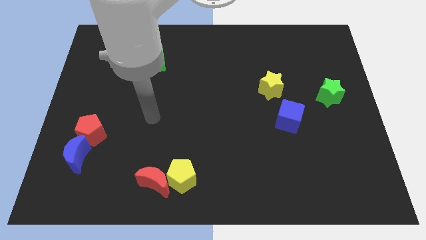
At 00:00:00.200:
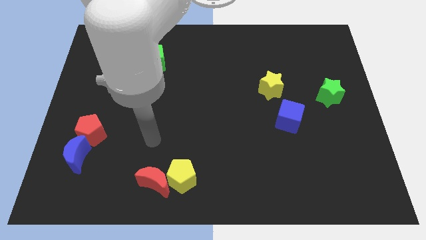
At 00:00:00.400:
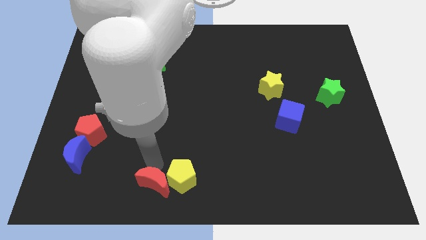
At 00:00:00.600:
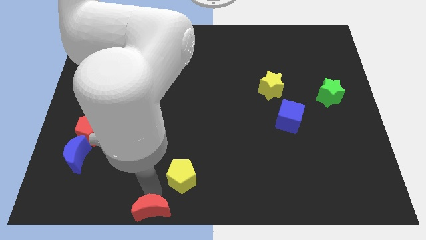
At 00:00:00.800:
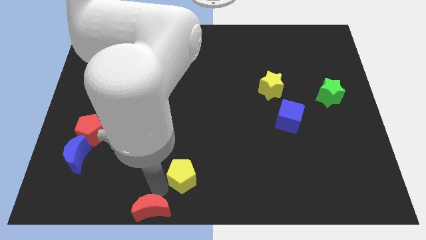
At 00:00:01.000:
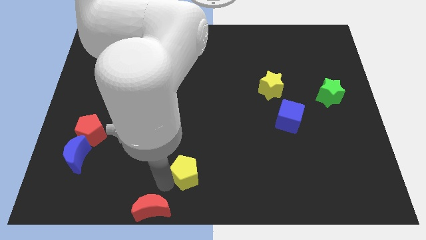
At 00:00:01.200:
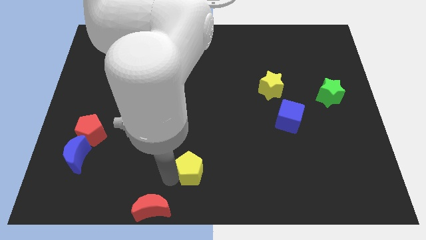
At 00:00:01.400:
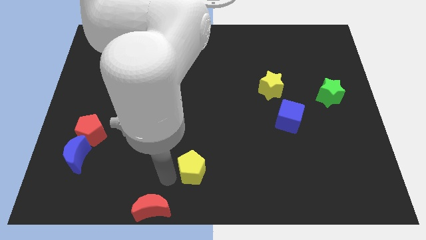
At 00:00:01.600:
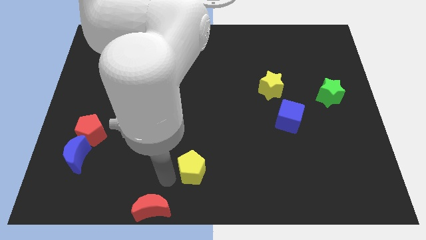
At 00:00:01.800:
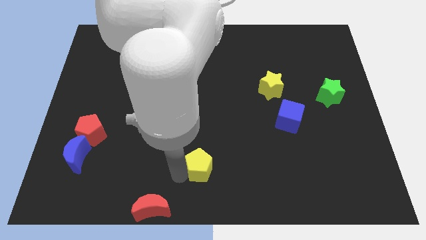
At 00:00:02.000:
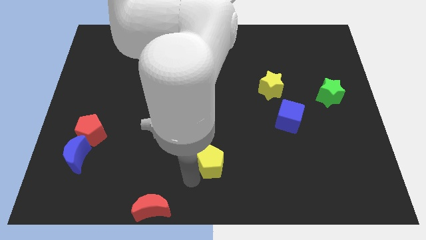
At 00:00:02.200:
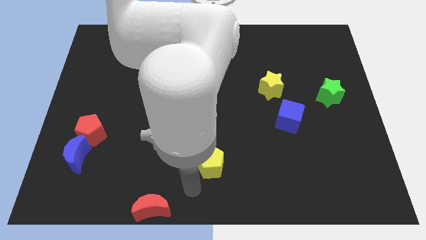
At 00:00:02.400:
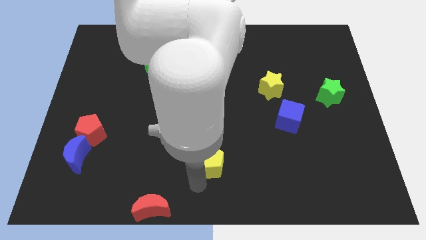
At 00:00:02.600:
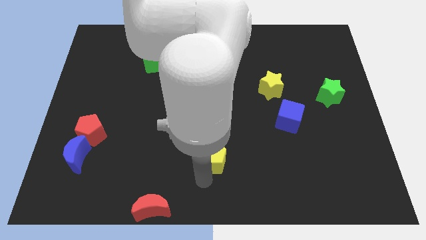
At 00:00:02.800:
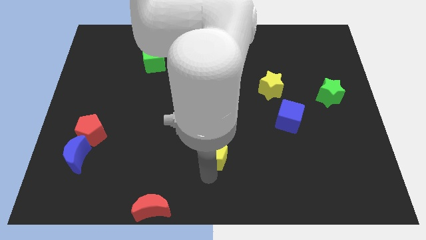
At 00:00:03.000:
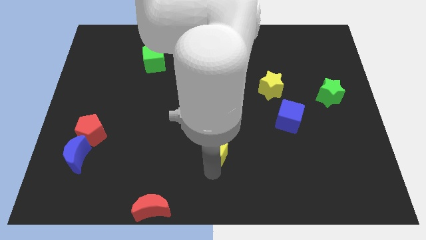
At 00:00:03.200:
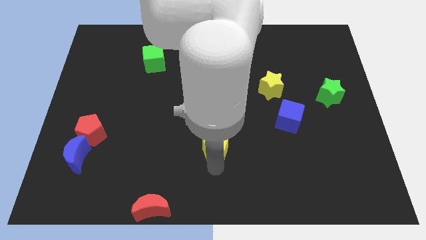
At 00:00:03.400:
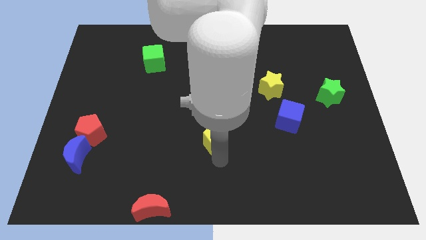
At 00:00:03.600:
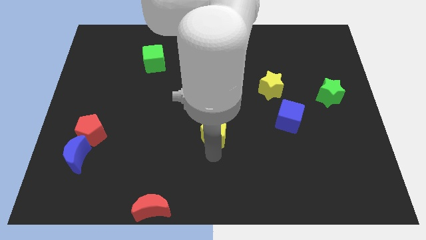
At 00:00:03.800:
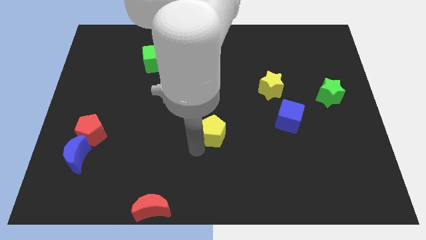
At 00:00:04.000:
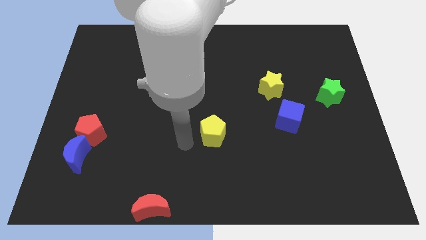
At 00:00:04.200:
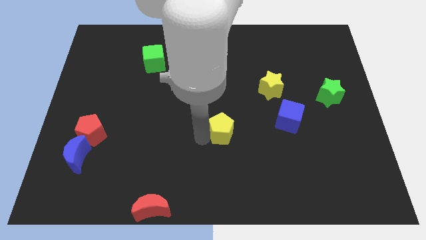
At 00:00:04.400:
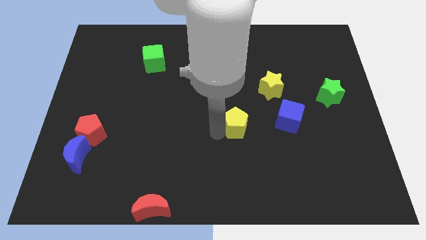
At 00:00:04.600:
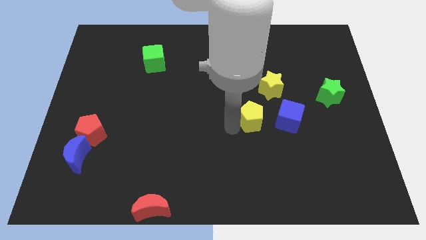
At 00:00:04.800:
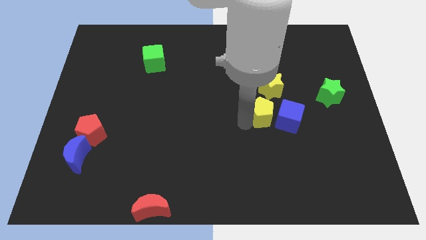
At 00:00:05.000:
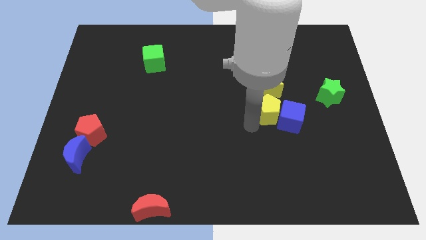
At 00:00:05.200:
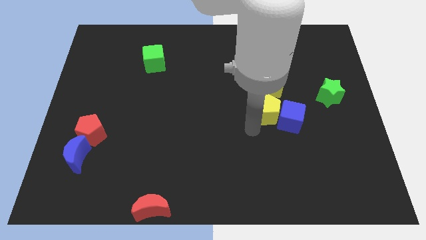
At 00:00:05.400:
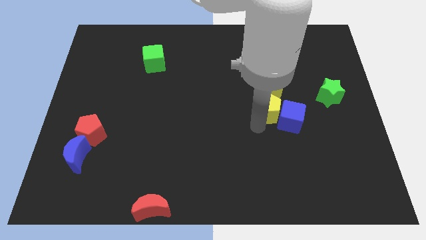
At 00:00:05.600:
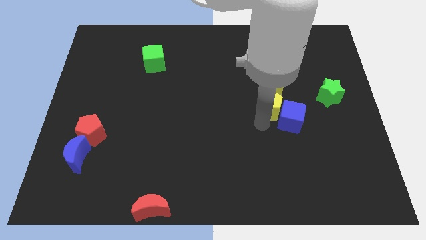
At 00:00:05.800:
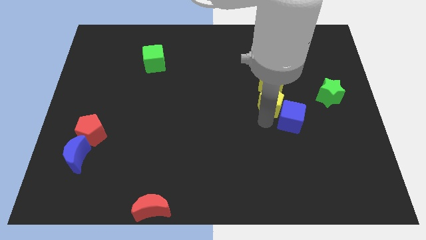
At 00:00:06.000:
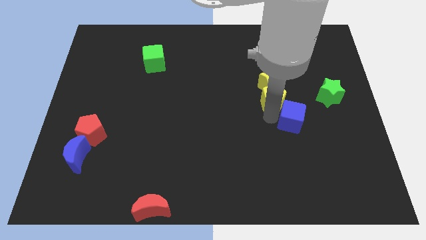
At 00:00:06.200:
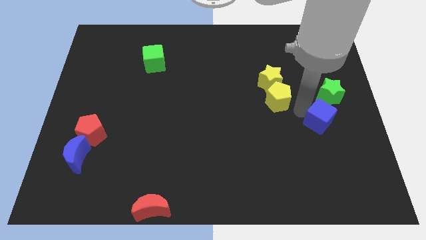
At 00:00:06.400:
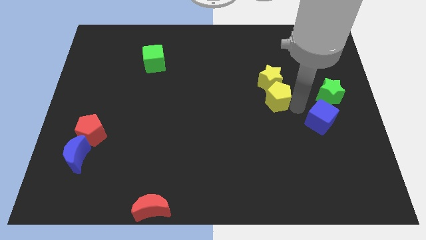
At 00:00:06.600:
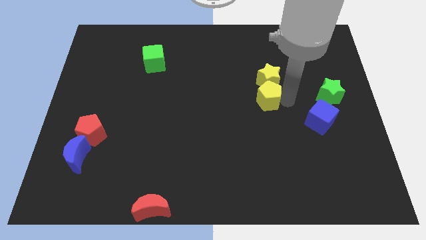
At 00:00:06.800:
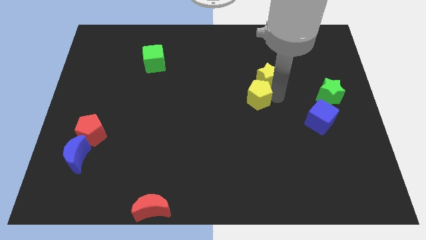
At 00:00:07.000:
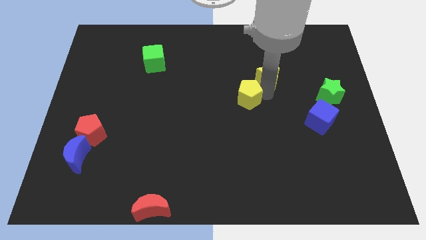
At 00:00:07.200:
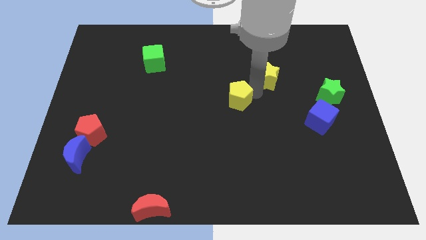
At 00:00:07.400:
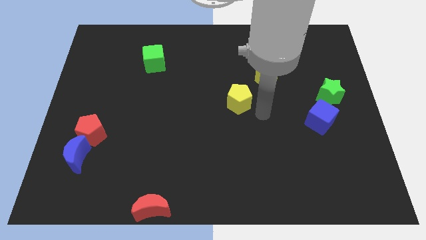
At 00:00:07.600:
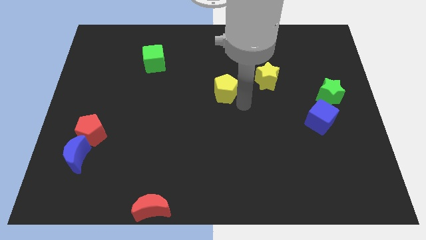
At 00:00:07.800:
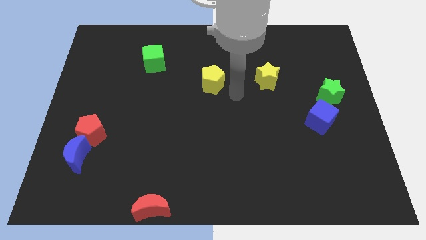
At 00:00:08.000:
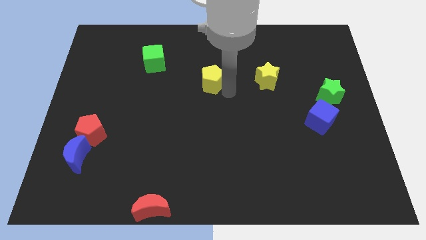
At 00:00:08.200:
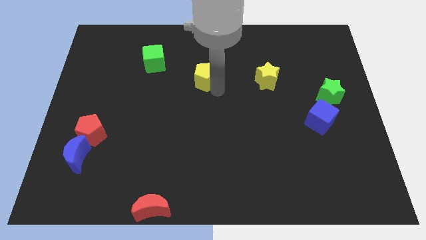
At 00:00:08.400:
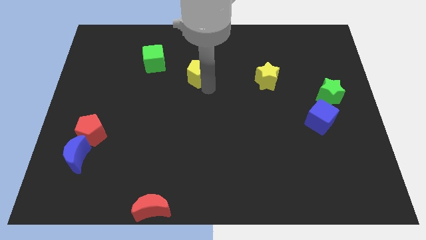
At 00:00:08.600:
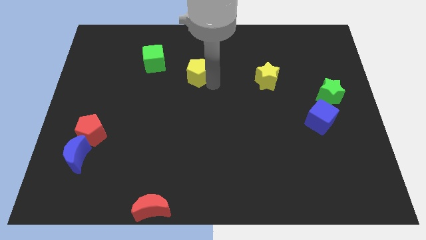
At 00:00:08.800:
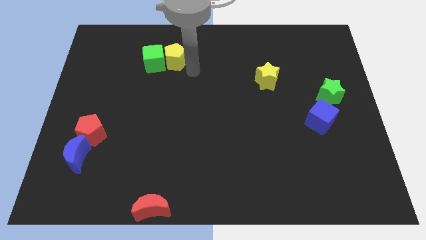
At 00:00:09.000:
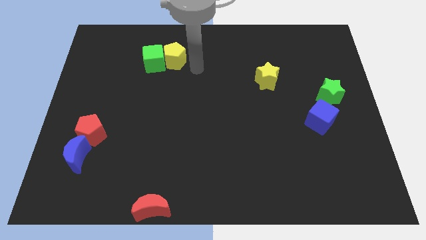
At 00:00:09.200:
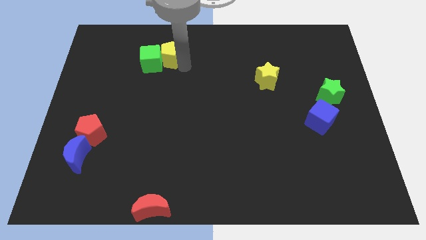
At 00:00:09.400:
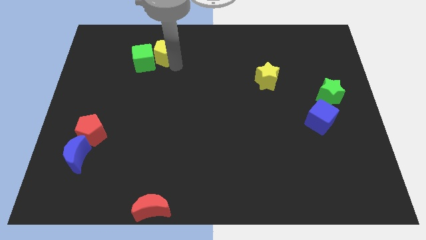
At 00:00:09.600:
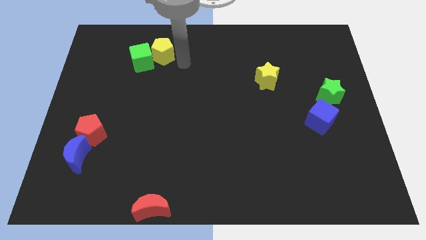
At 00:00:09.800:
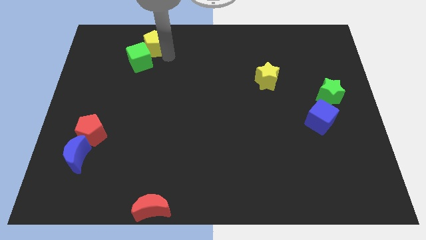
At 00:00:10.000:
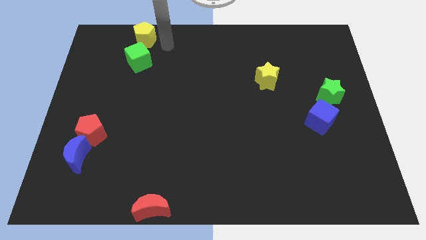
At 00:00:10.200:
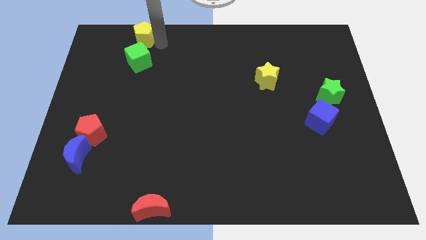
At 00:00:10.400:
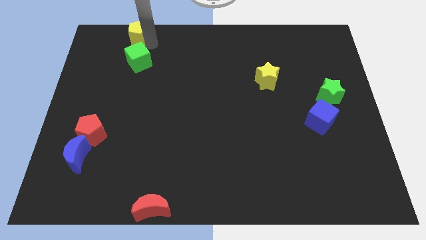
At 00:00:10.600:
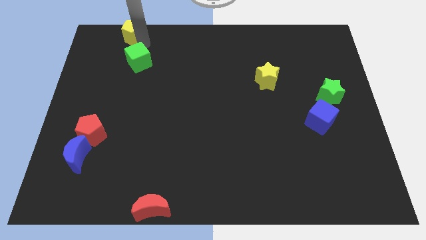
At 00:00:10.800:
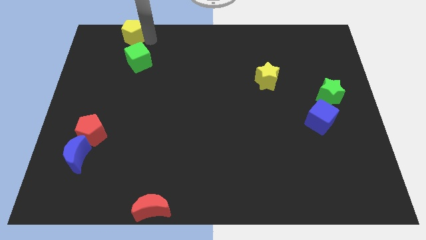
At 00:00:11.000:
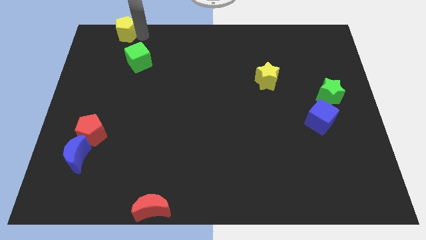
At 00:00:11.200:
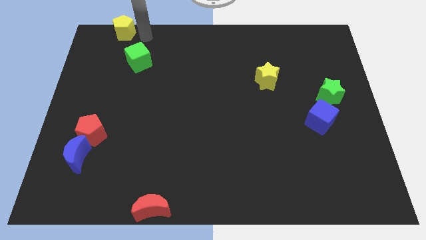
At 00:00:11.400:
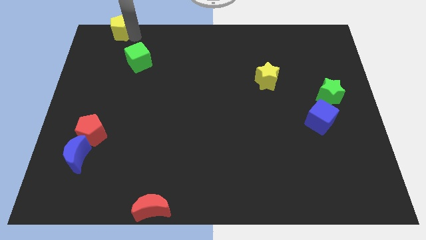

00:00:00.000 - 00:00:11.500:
put the yellow pentagon to the top left

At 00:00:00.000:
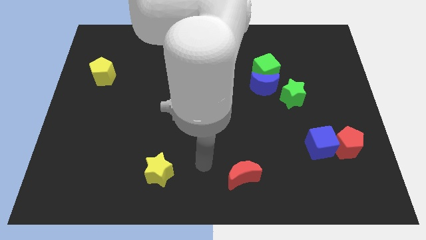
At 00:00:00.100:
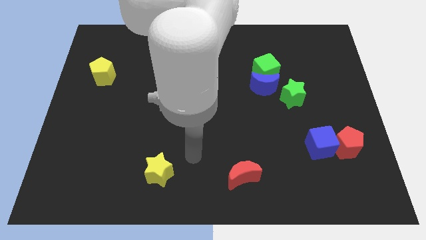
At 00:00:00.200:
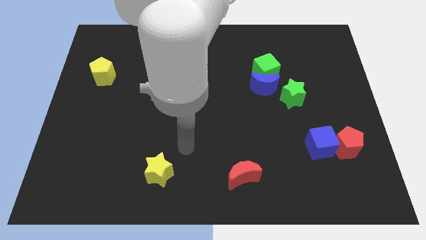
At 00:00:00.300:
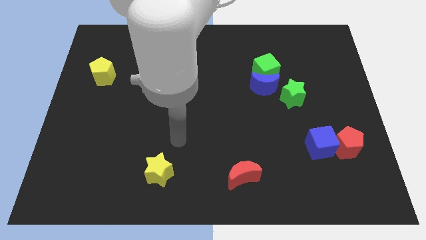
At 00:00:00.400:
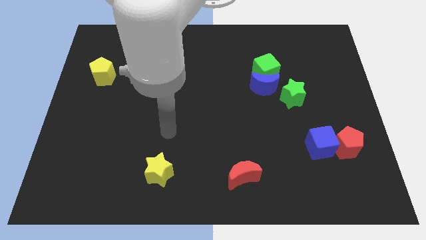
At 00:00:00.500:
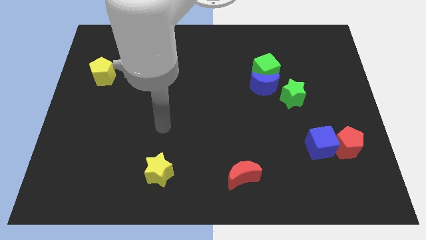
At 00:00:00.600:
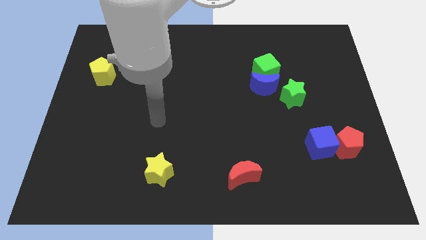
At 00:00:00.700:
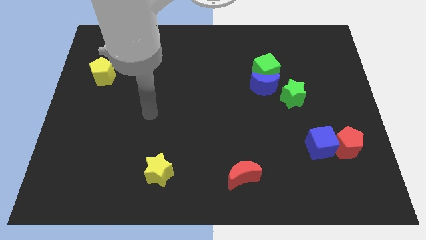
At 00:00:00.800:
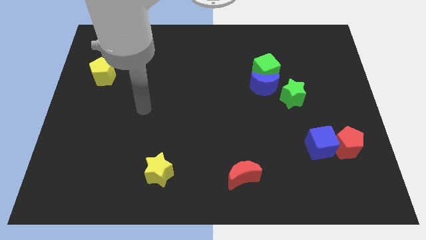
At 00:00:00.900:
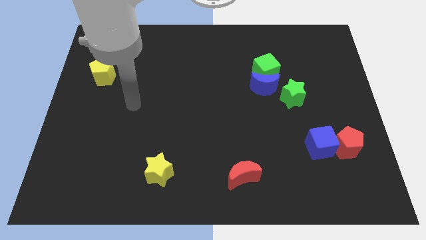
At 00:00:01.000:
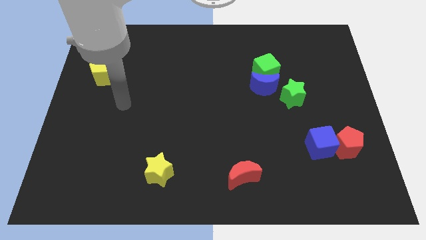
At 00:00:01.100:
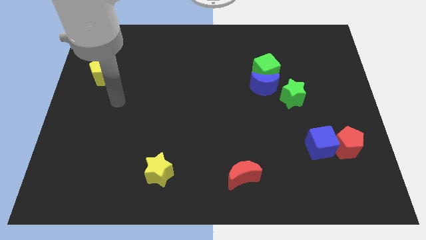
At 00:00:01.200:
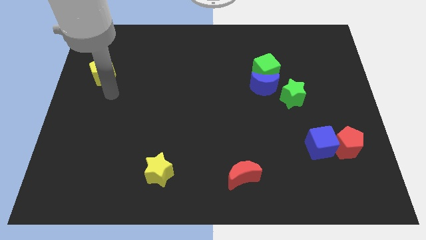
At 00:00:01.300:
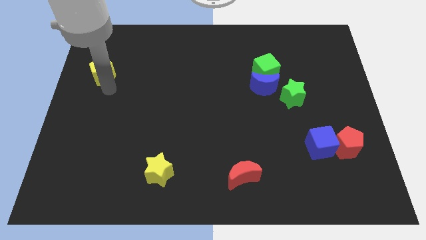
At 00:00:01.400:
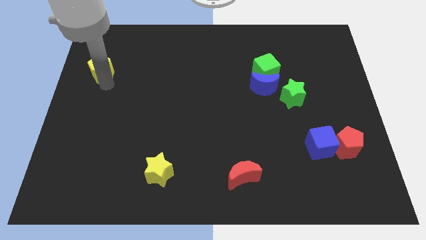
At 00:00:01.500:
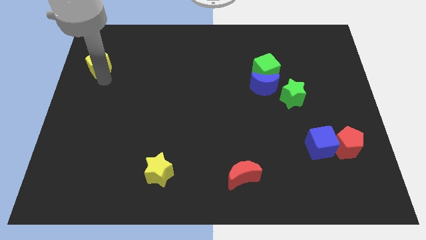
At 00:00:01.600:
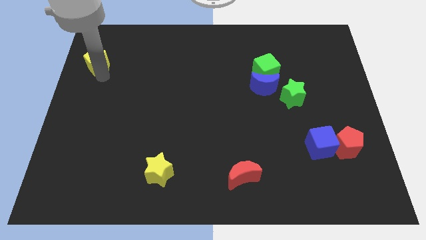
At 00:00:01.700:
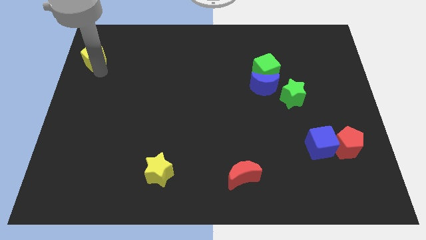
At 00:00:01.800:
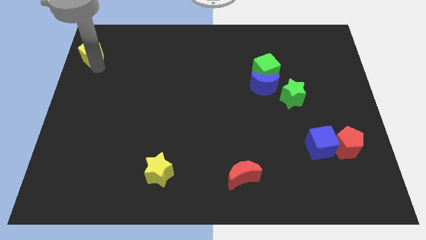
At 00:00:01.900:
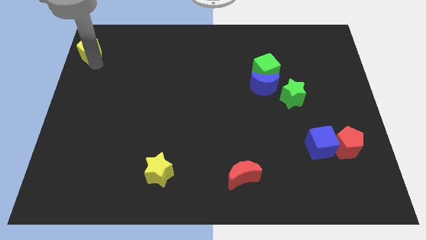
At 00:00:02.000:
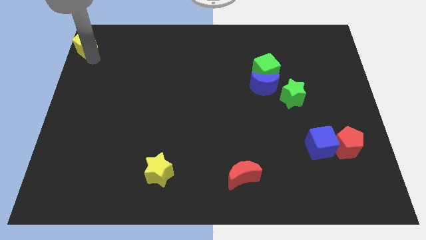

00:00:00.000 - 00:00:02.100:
move the yellow pentagon to the upper left corner
